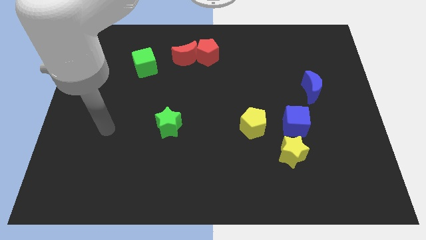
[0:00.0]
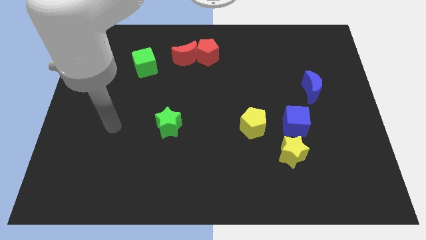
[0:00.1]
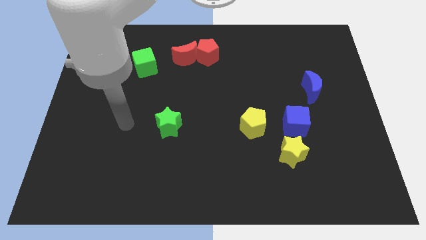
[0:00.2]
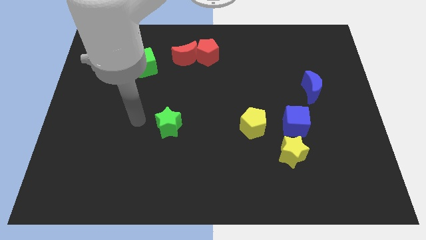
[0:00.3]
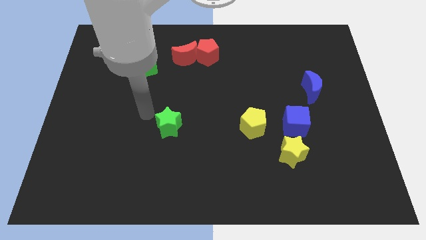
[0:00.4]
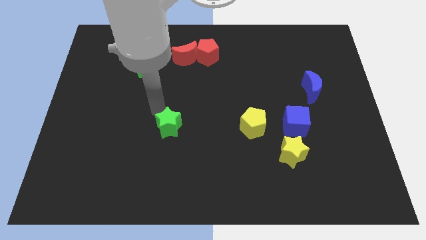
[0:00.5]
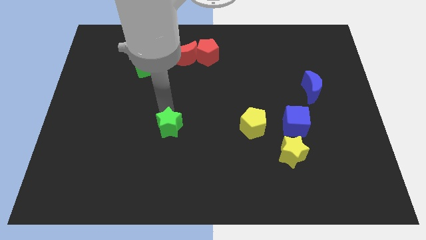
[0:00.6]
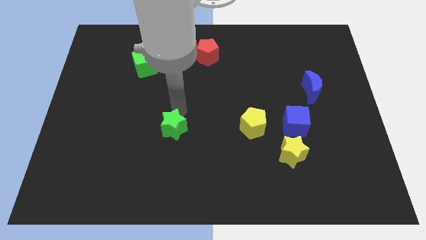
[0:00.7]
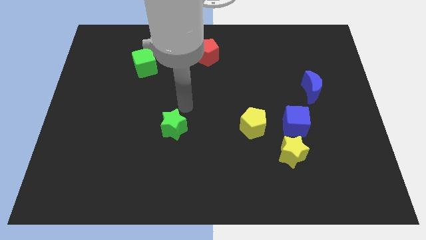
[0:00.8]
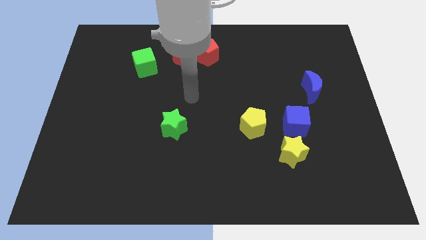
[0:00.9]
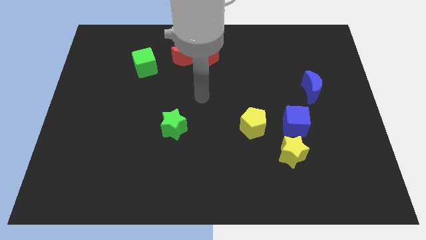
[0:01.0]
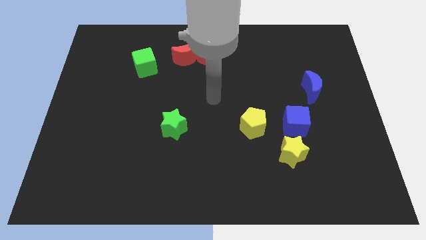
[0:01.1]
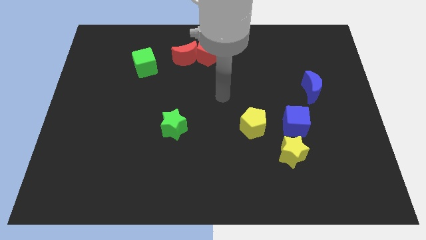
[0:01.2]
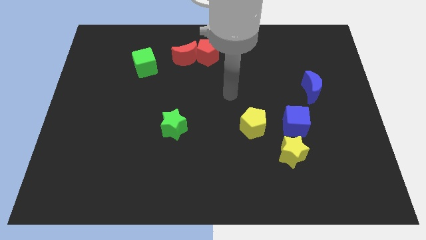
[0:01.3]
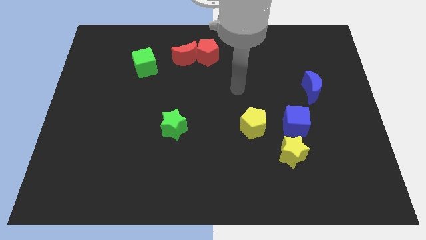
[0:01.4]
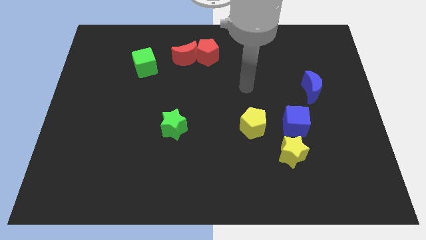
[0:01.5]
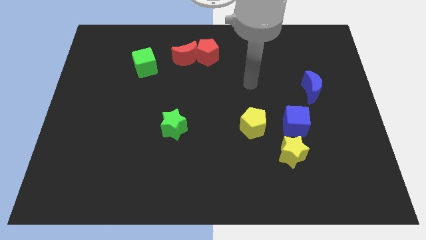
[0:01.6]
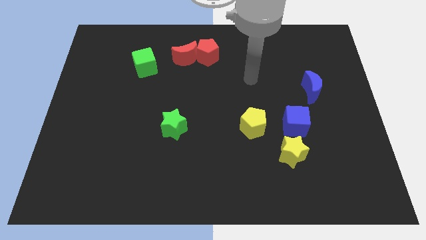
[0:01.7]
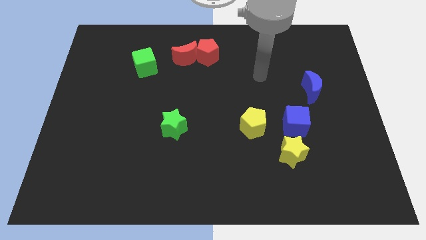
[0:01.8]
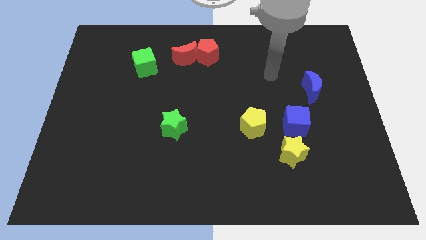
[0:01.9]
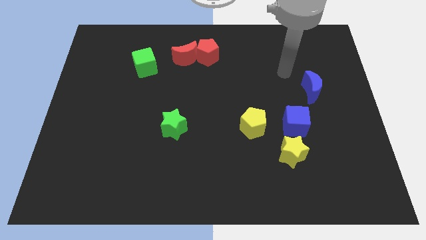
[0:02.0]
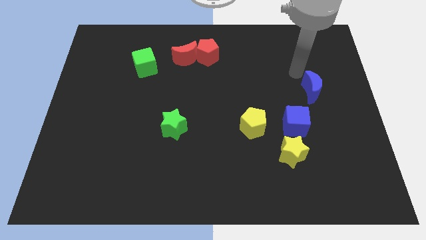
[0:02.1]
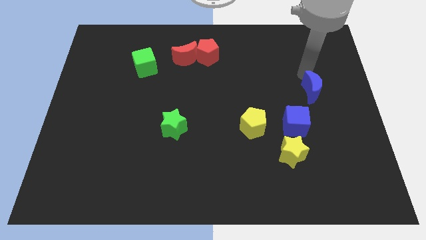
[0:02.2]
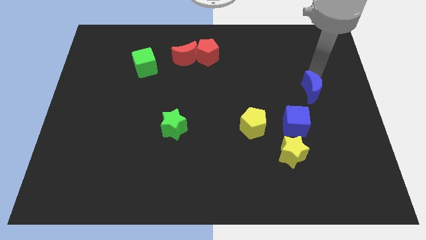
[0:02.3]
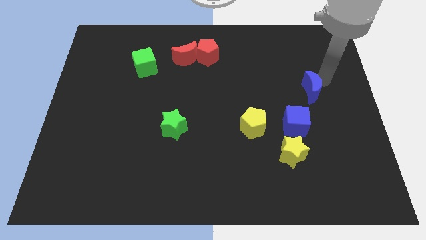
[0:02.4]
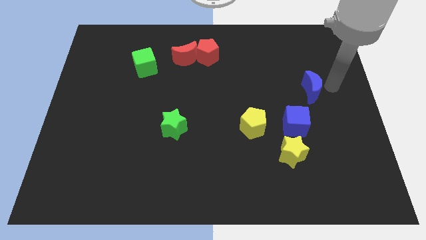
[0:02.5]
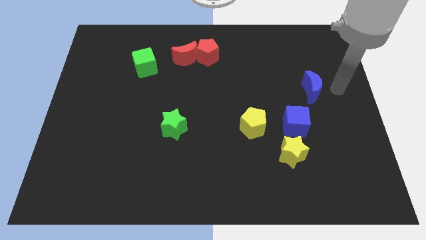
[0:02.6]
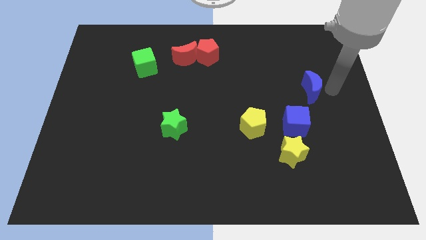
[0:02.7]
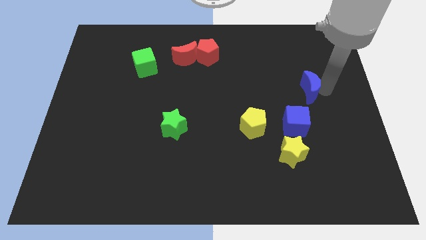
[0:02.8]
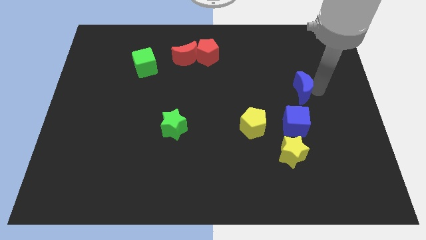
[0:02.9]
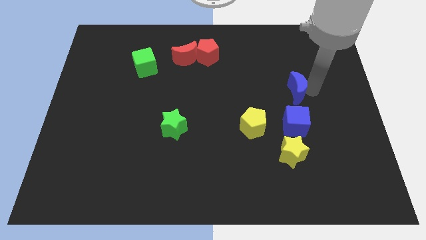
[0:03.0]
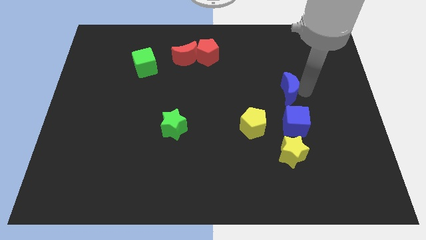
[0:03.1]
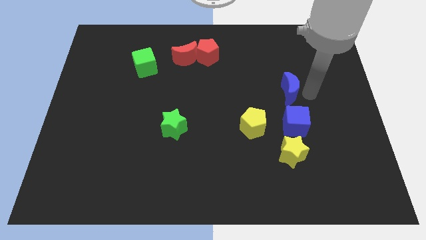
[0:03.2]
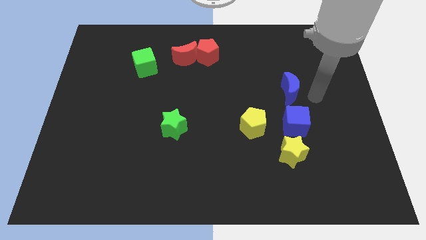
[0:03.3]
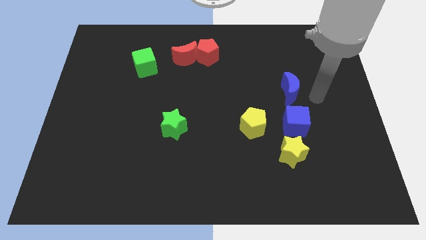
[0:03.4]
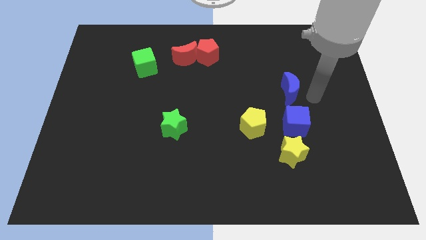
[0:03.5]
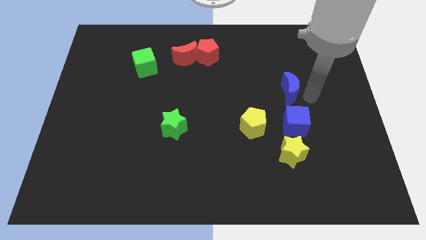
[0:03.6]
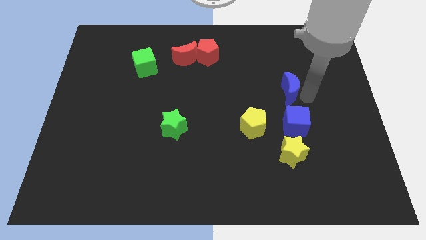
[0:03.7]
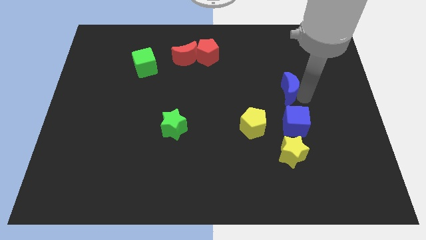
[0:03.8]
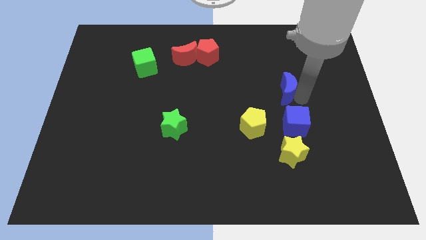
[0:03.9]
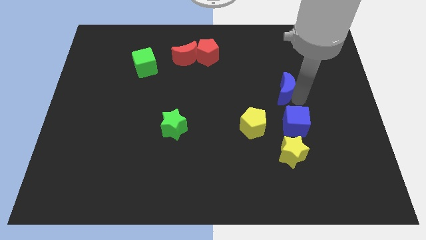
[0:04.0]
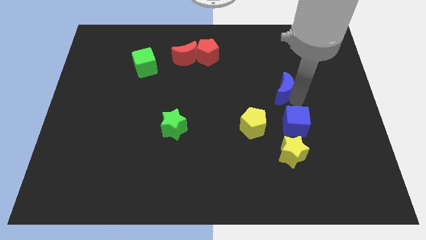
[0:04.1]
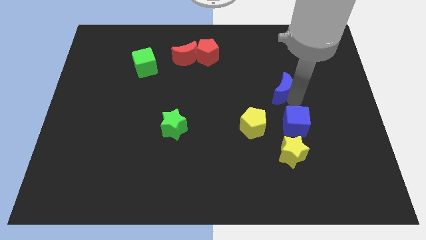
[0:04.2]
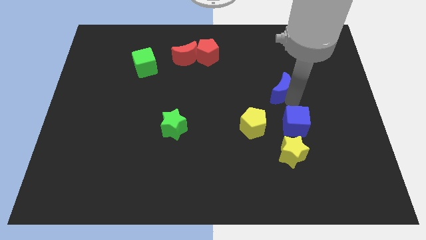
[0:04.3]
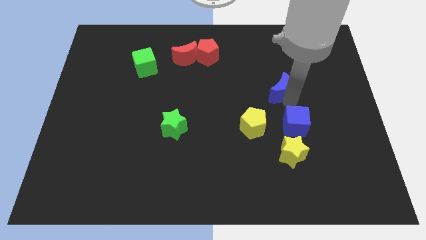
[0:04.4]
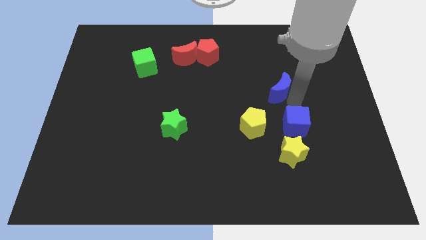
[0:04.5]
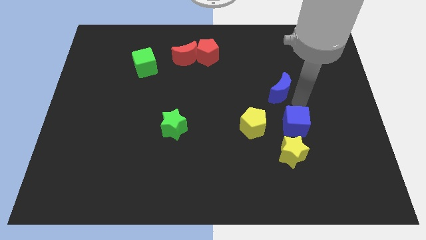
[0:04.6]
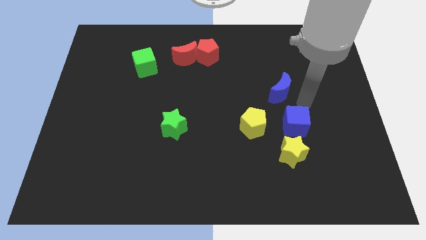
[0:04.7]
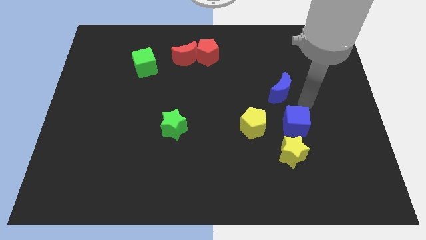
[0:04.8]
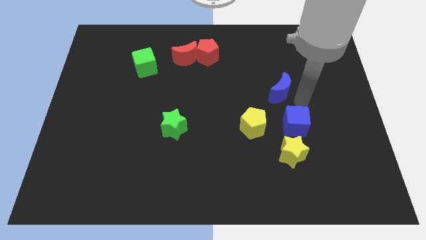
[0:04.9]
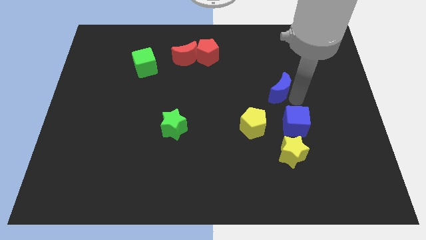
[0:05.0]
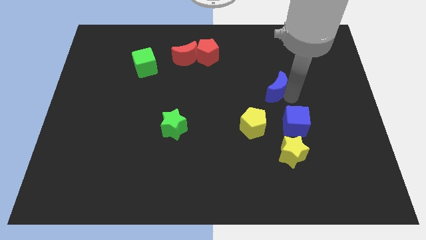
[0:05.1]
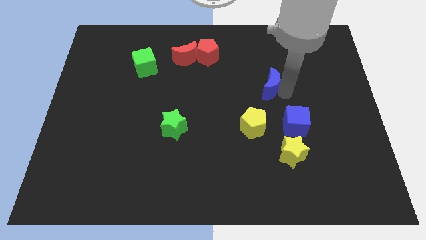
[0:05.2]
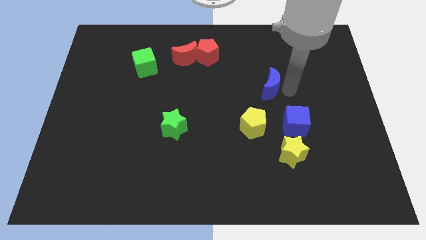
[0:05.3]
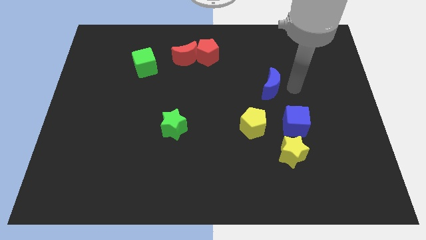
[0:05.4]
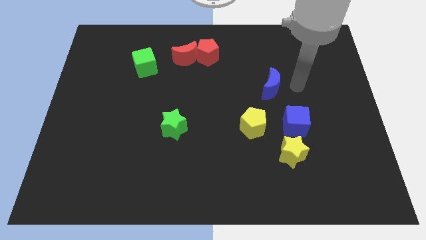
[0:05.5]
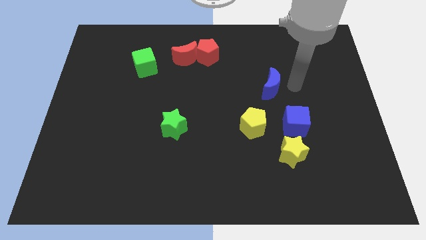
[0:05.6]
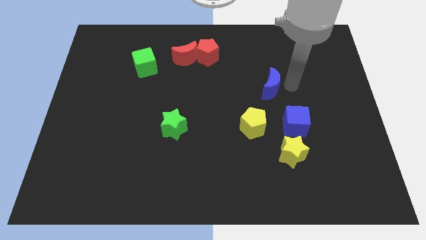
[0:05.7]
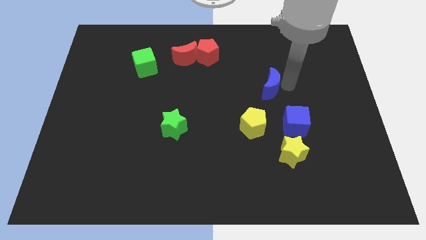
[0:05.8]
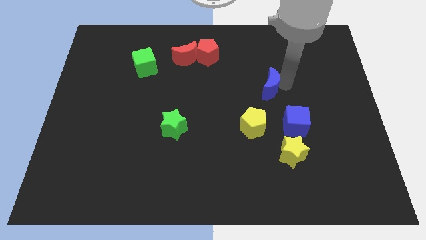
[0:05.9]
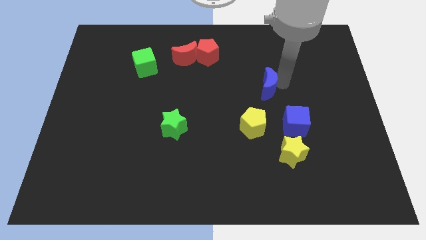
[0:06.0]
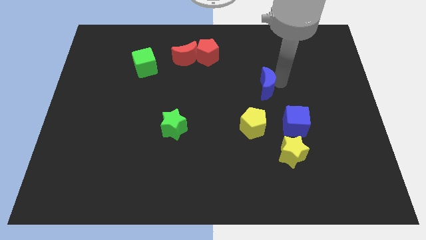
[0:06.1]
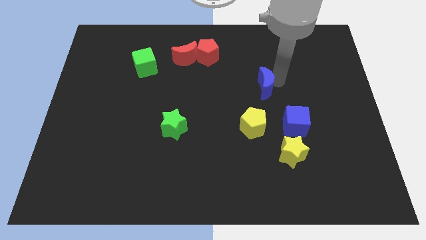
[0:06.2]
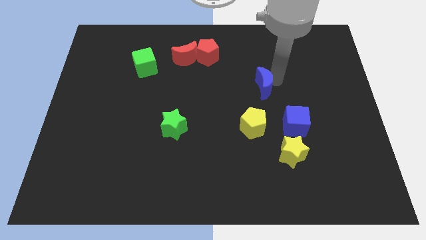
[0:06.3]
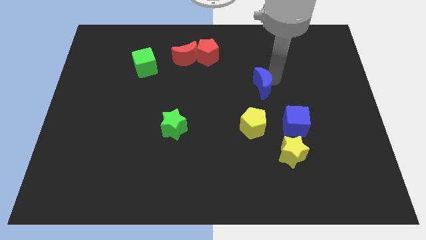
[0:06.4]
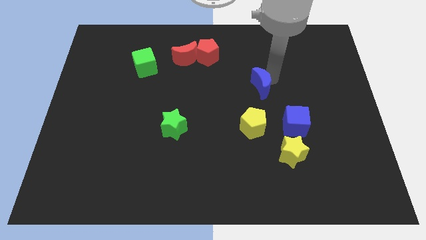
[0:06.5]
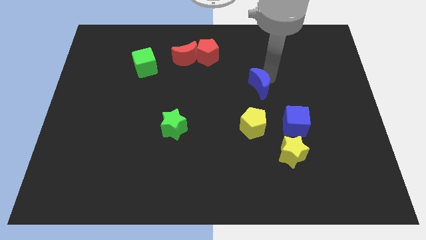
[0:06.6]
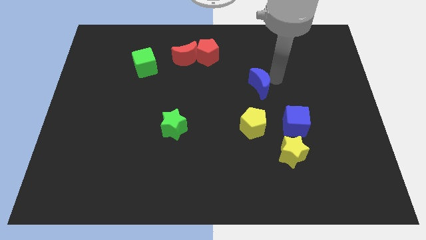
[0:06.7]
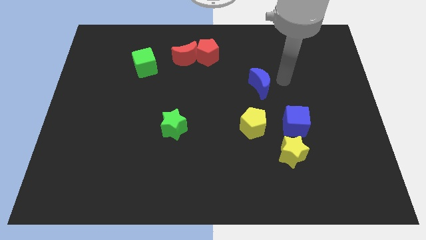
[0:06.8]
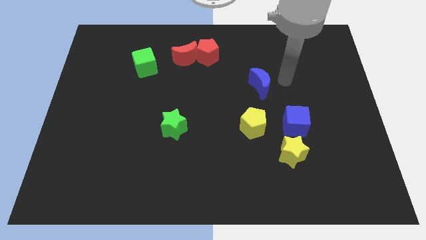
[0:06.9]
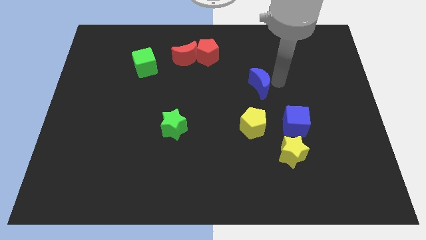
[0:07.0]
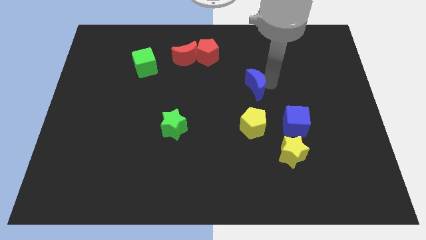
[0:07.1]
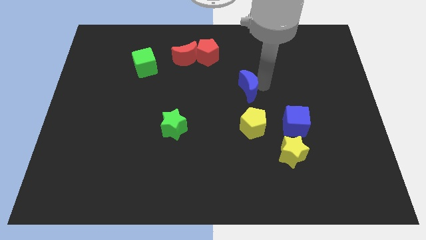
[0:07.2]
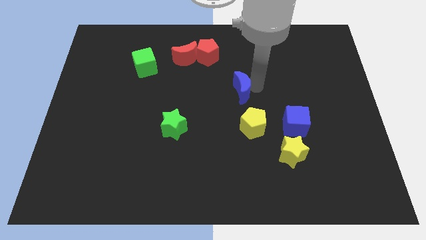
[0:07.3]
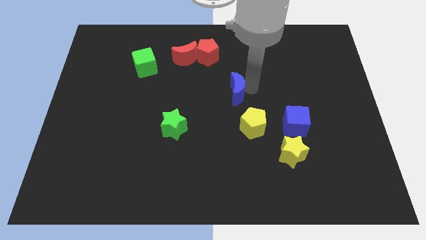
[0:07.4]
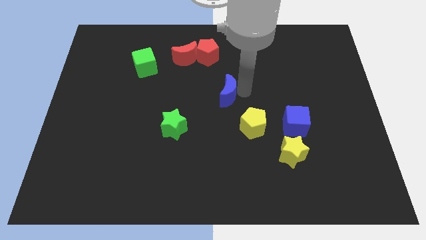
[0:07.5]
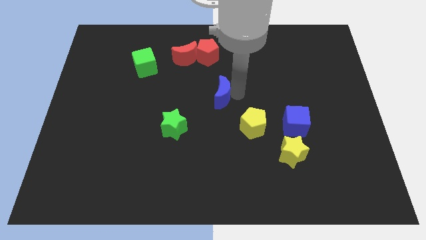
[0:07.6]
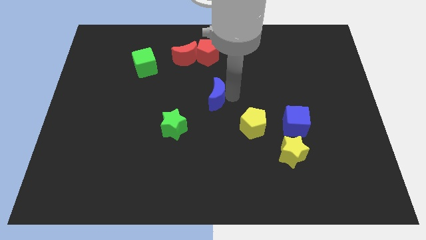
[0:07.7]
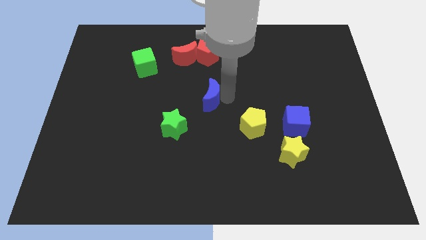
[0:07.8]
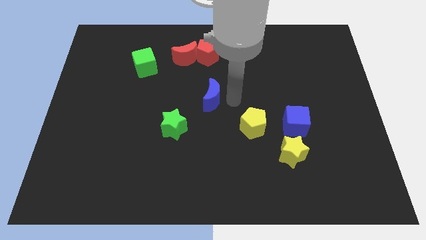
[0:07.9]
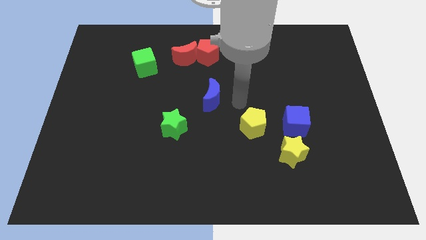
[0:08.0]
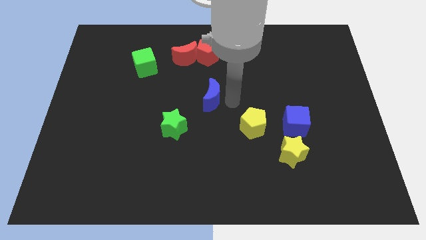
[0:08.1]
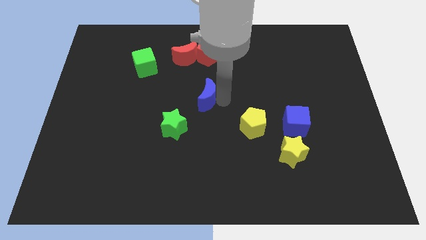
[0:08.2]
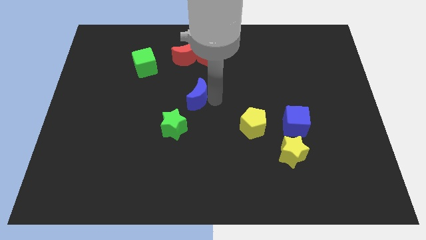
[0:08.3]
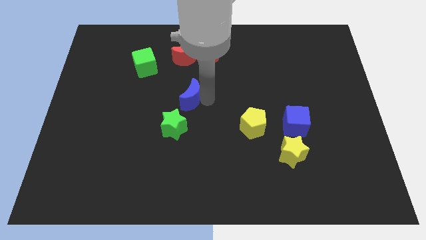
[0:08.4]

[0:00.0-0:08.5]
slide the blue moon to the top of the green star
